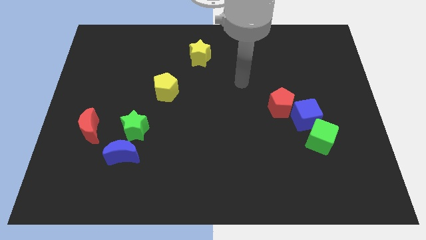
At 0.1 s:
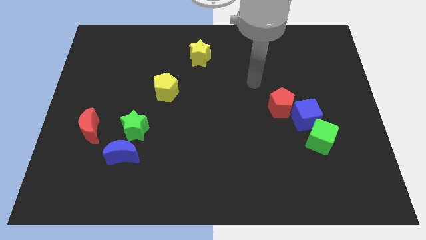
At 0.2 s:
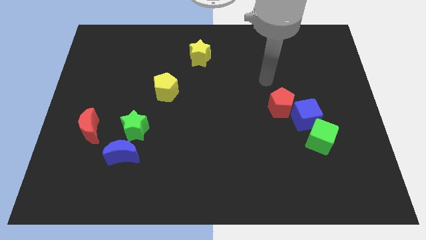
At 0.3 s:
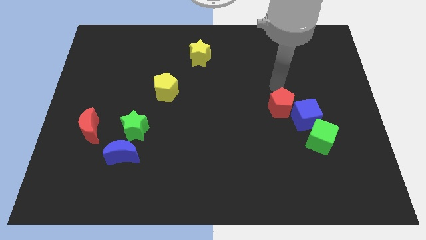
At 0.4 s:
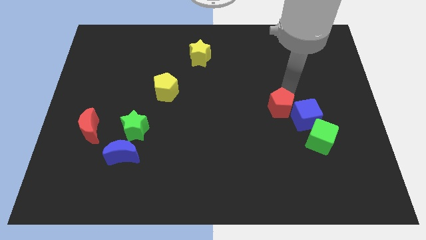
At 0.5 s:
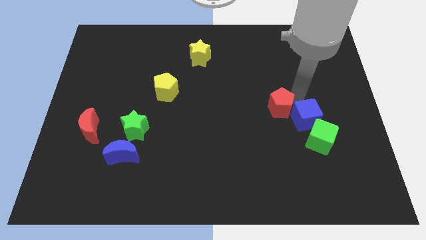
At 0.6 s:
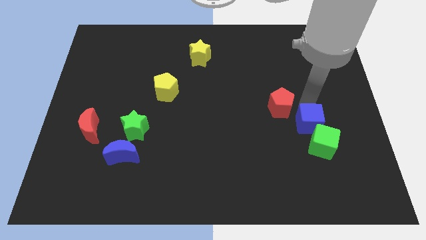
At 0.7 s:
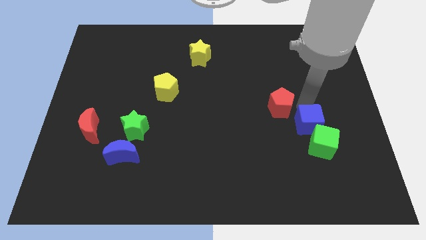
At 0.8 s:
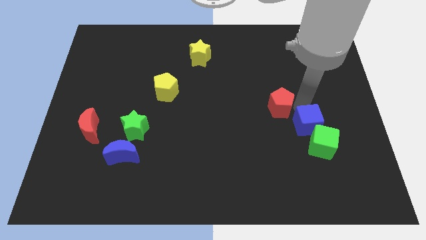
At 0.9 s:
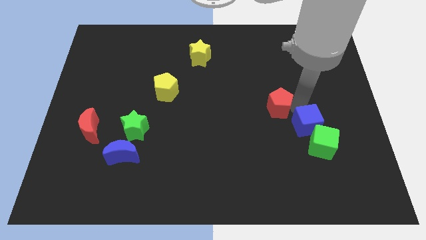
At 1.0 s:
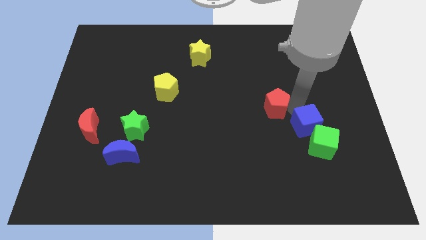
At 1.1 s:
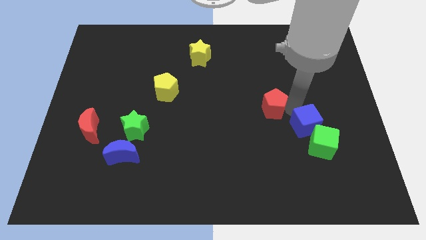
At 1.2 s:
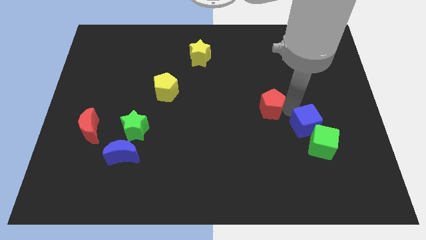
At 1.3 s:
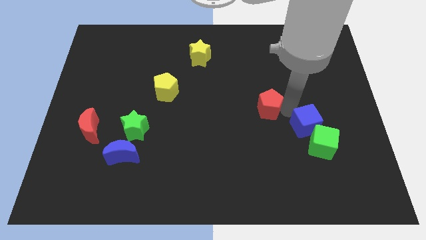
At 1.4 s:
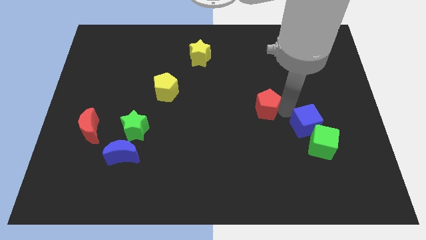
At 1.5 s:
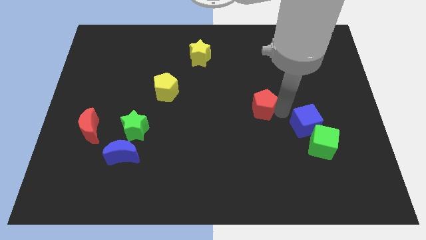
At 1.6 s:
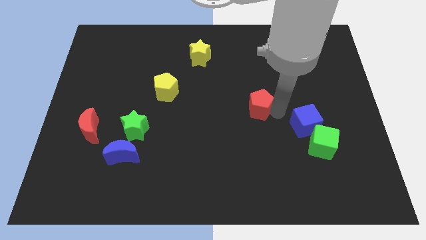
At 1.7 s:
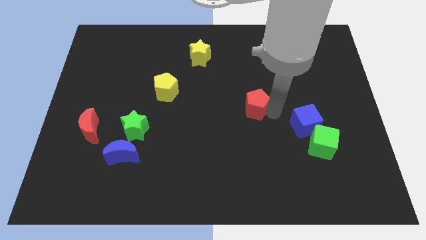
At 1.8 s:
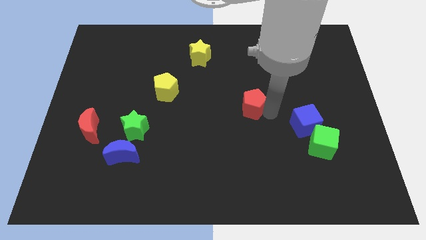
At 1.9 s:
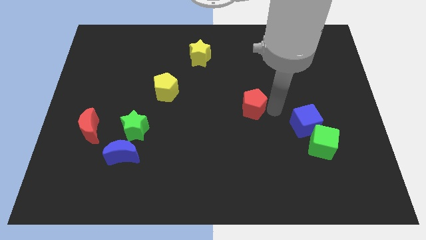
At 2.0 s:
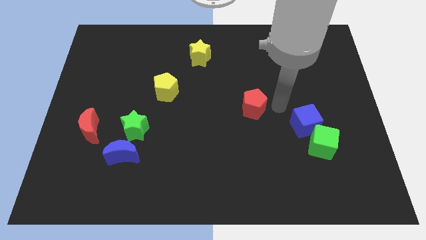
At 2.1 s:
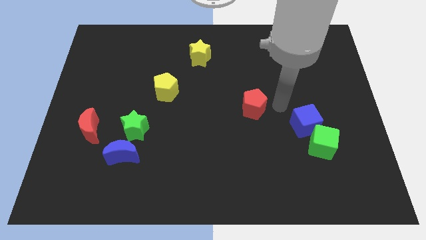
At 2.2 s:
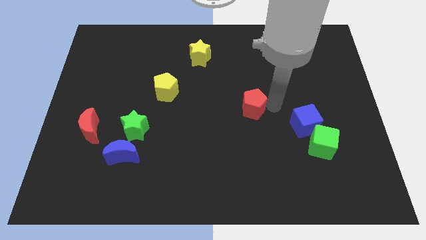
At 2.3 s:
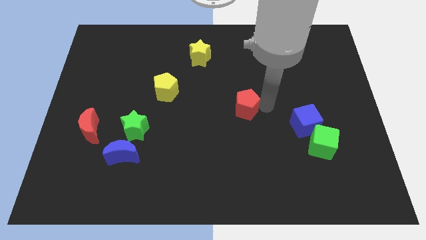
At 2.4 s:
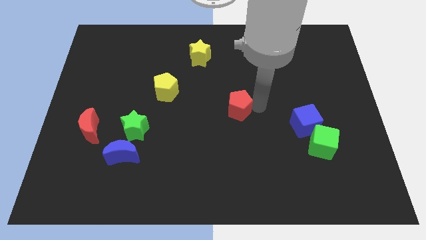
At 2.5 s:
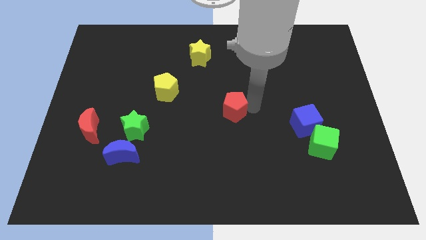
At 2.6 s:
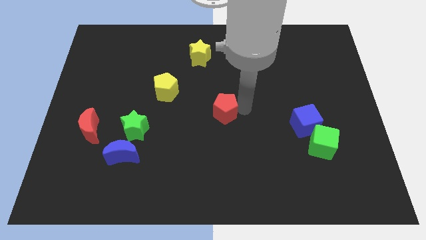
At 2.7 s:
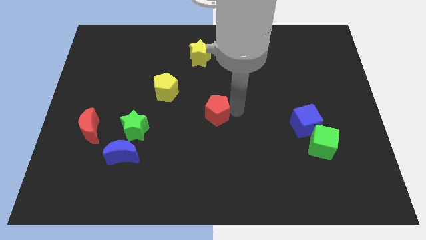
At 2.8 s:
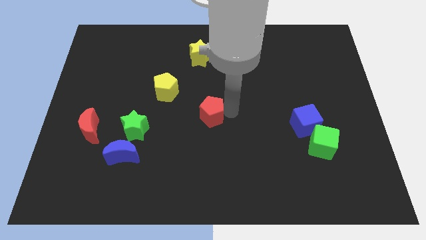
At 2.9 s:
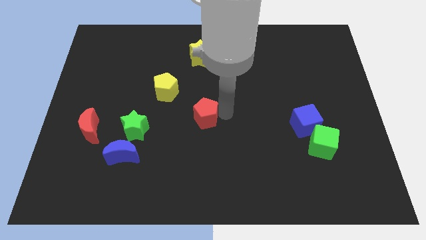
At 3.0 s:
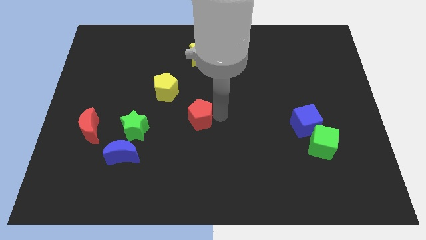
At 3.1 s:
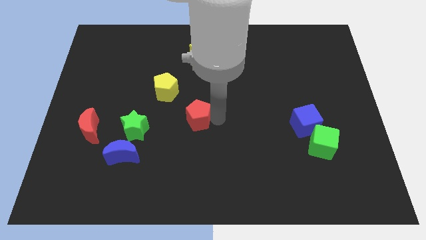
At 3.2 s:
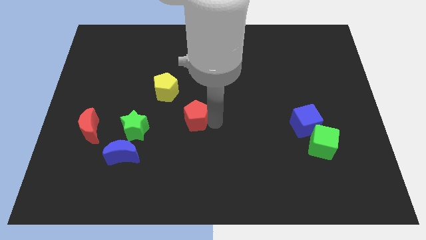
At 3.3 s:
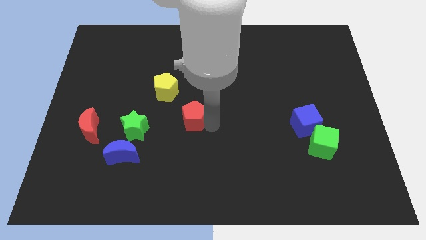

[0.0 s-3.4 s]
move the red pentagon left

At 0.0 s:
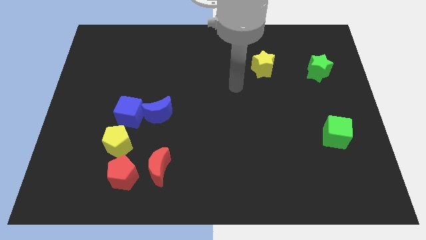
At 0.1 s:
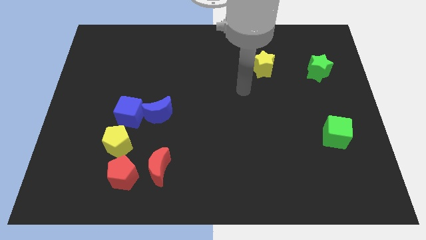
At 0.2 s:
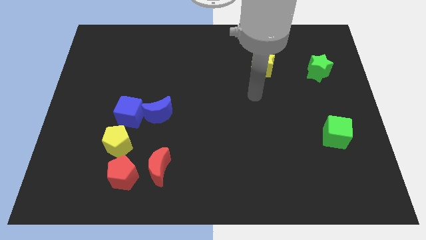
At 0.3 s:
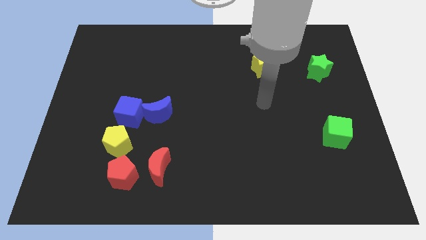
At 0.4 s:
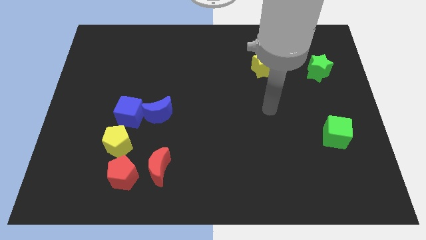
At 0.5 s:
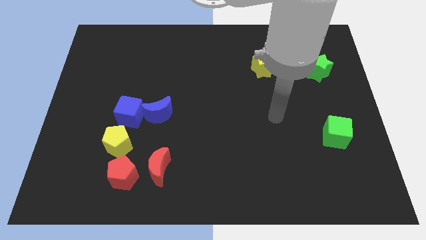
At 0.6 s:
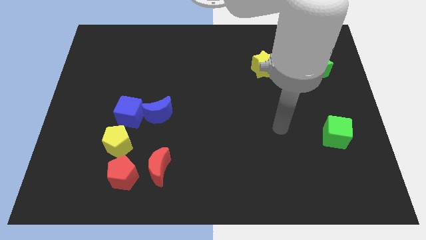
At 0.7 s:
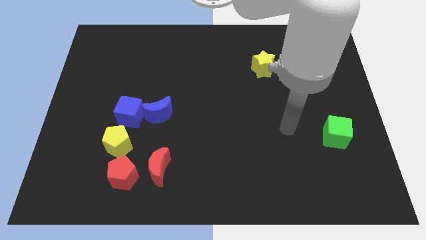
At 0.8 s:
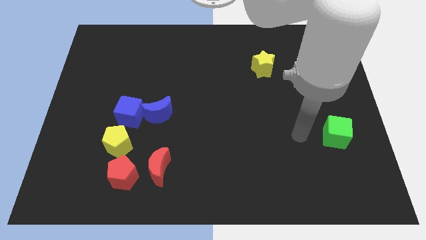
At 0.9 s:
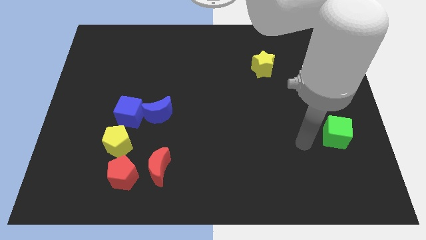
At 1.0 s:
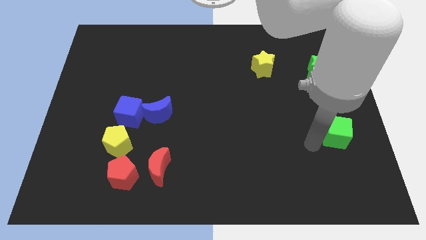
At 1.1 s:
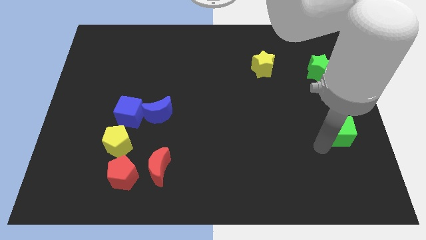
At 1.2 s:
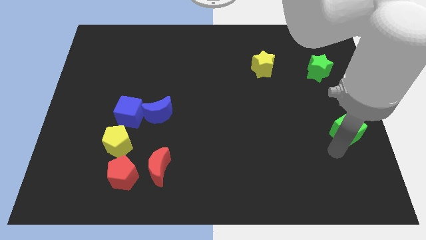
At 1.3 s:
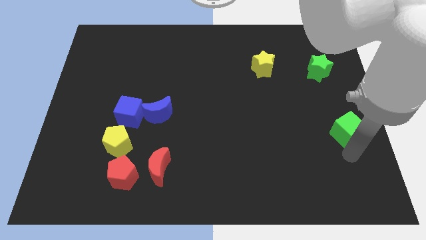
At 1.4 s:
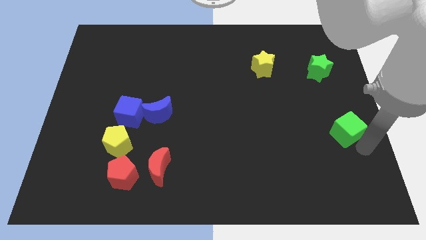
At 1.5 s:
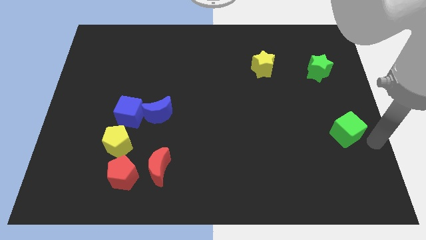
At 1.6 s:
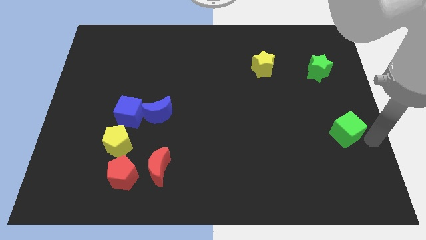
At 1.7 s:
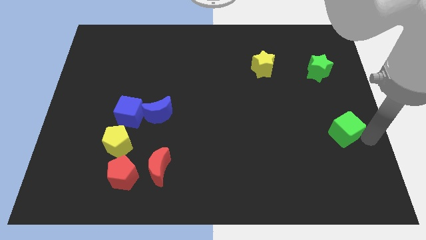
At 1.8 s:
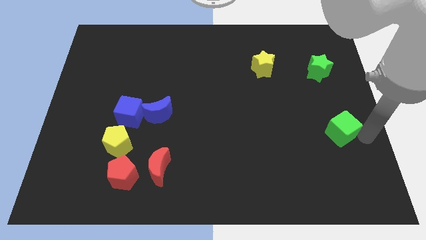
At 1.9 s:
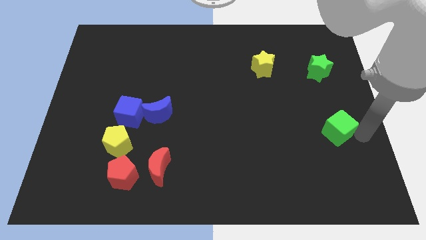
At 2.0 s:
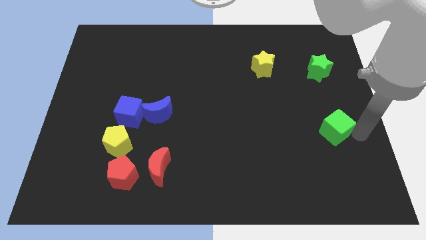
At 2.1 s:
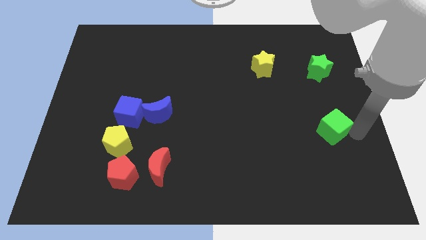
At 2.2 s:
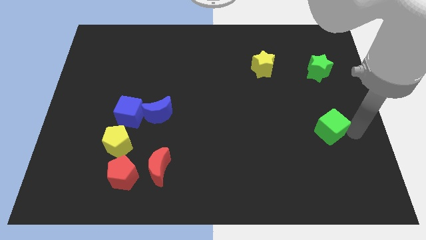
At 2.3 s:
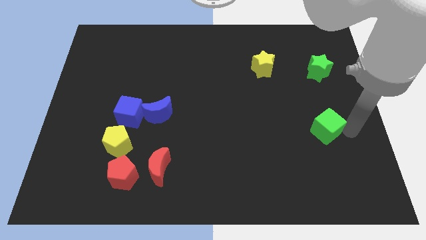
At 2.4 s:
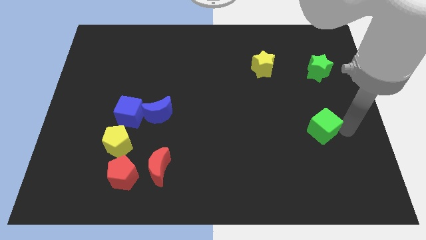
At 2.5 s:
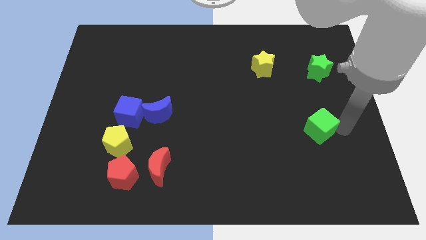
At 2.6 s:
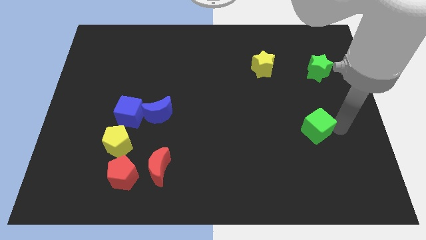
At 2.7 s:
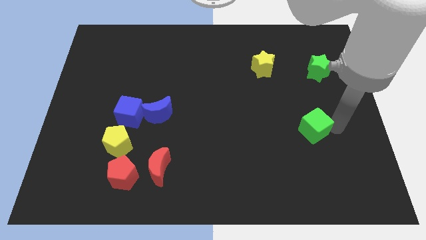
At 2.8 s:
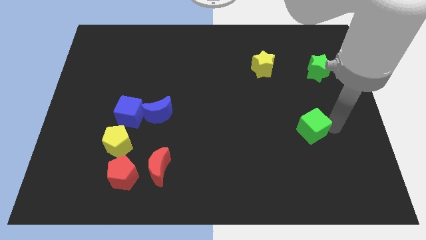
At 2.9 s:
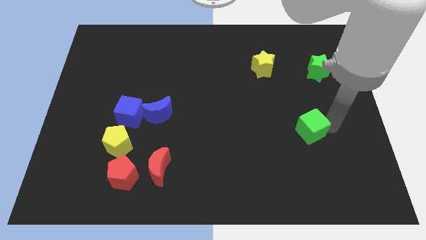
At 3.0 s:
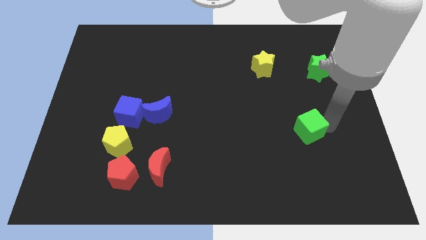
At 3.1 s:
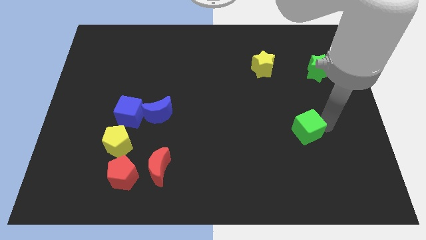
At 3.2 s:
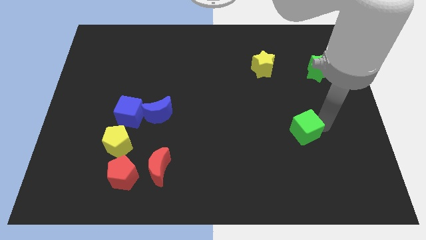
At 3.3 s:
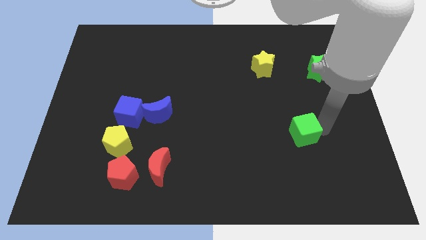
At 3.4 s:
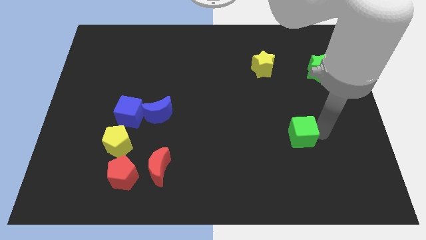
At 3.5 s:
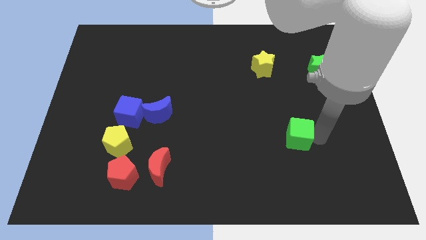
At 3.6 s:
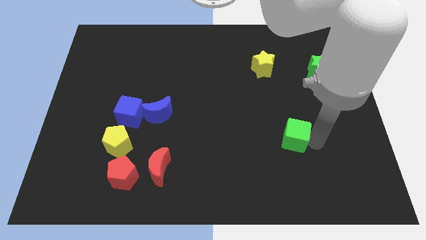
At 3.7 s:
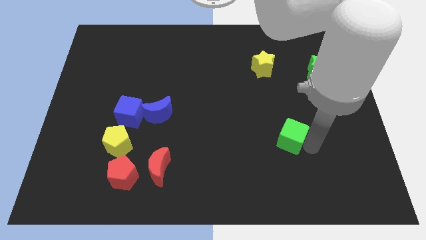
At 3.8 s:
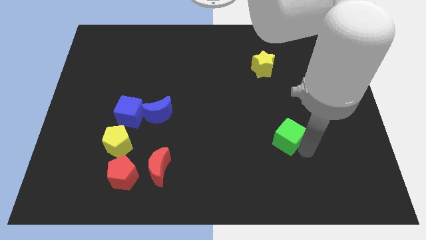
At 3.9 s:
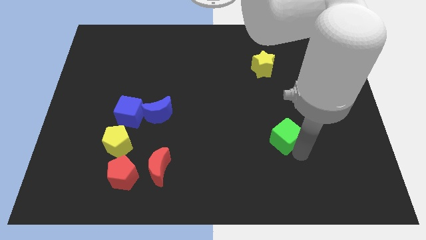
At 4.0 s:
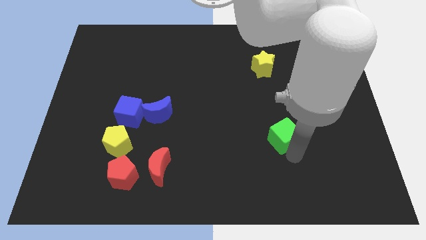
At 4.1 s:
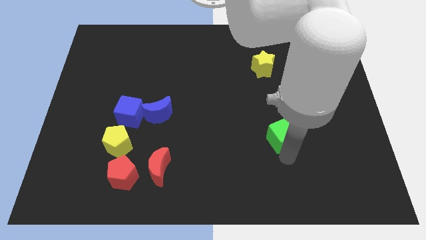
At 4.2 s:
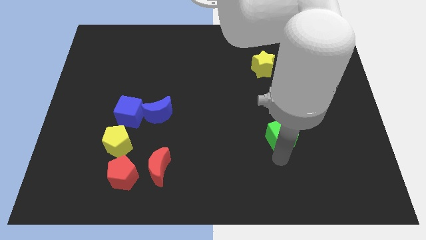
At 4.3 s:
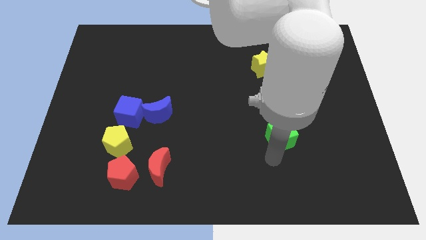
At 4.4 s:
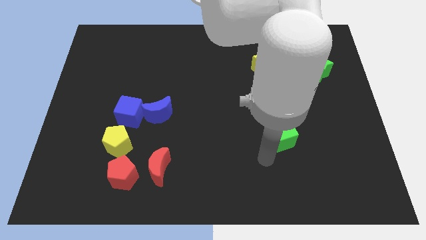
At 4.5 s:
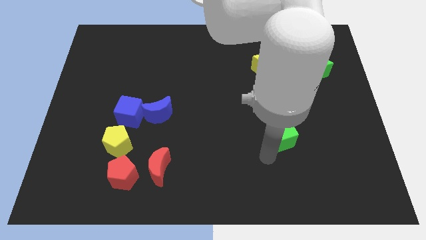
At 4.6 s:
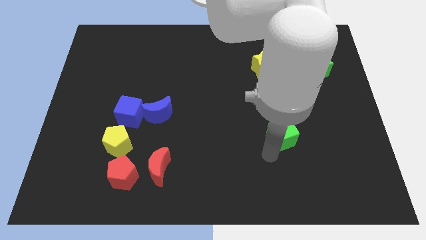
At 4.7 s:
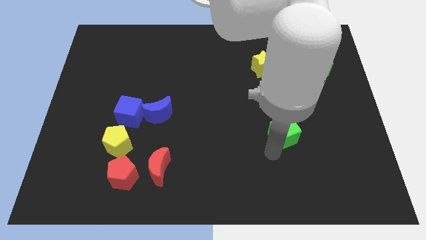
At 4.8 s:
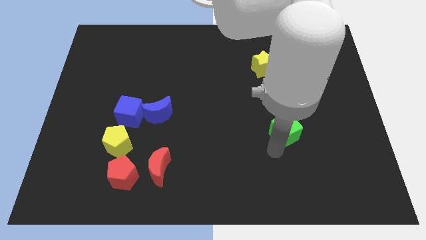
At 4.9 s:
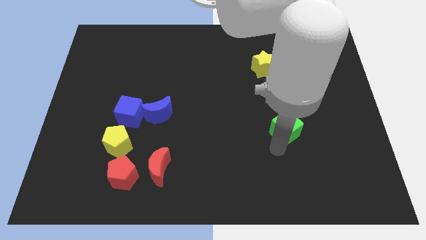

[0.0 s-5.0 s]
push the green cube a little bit diagonally up and left
